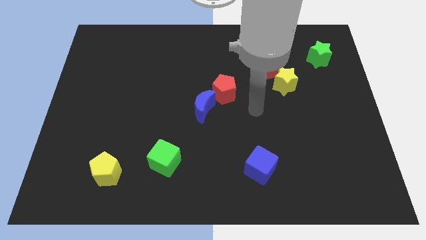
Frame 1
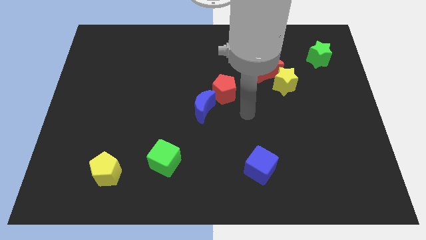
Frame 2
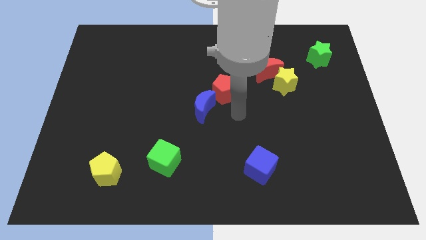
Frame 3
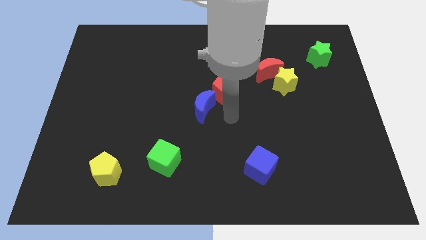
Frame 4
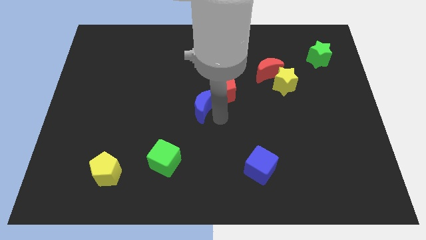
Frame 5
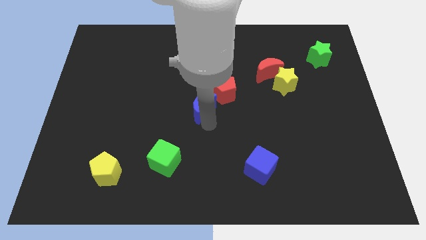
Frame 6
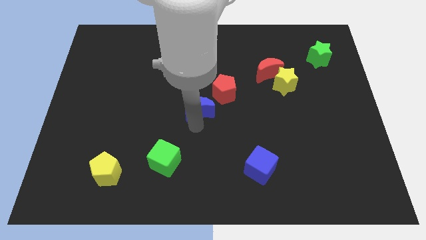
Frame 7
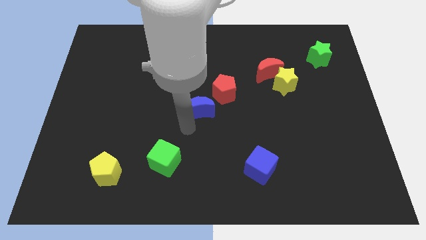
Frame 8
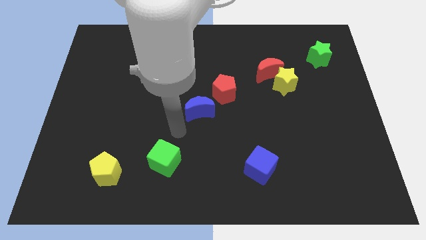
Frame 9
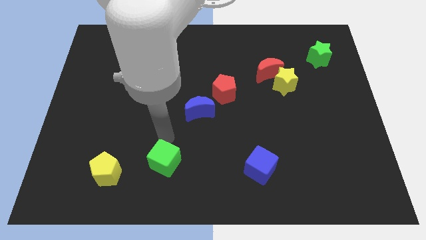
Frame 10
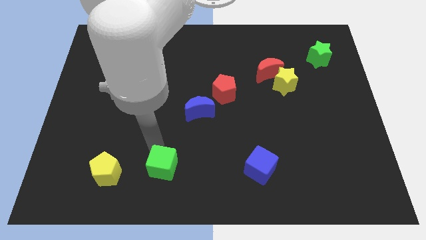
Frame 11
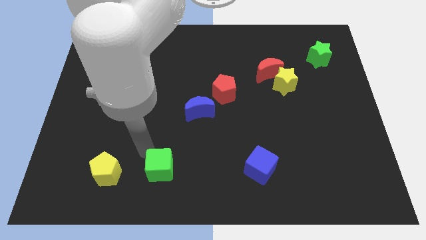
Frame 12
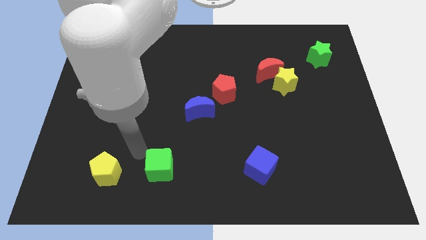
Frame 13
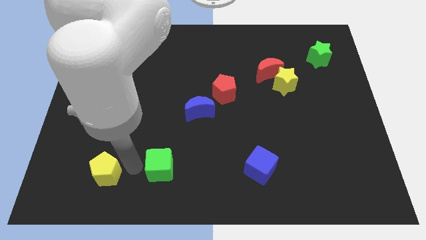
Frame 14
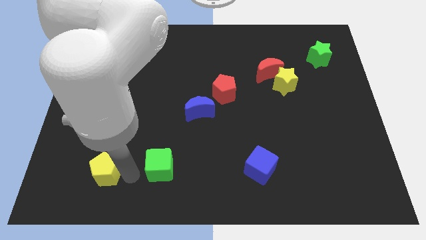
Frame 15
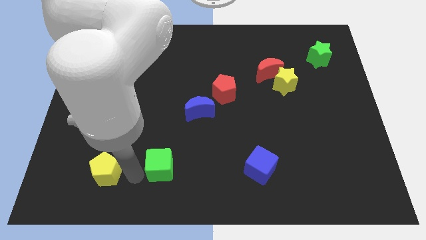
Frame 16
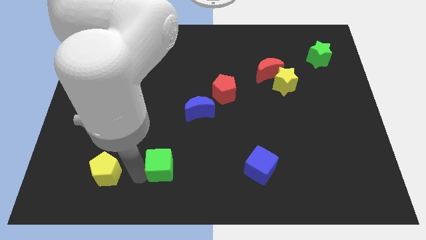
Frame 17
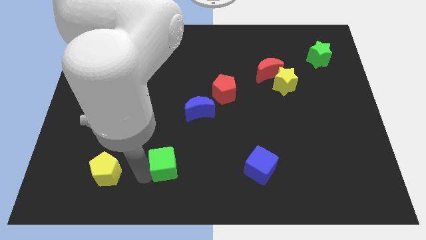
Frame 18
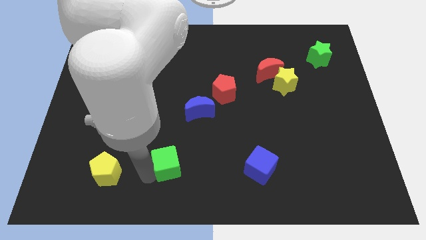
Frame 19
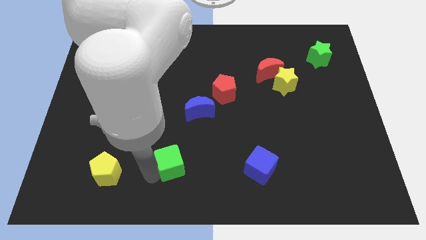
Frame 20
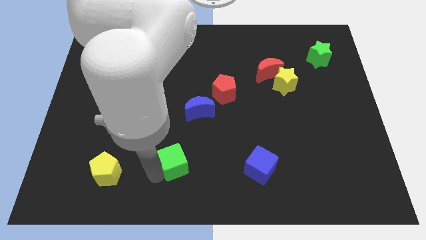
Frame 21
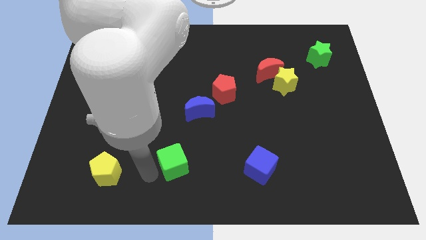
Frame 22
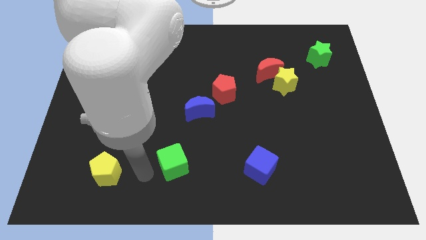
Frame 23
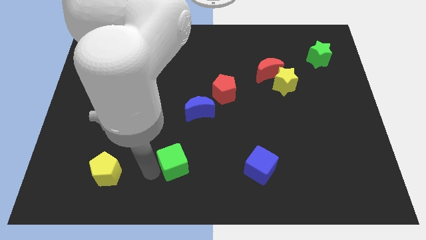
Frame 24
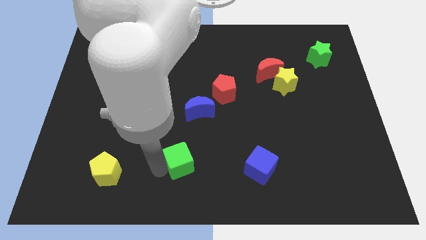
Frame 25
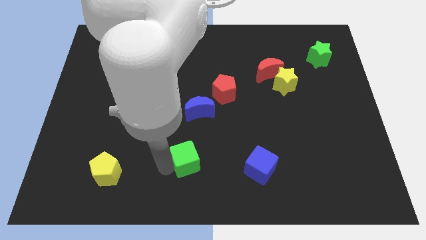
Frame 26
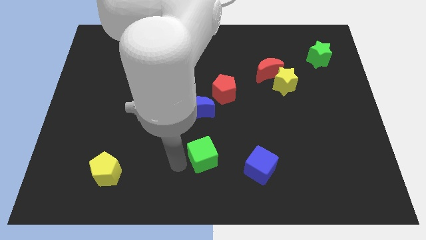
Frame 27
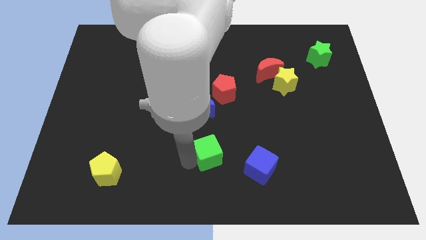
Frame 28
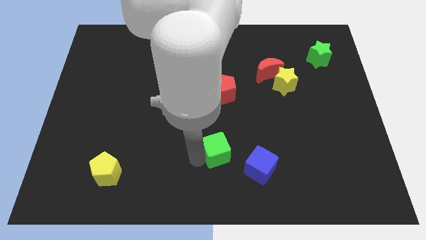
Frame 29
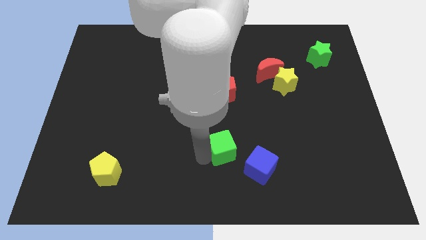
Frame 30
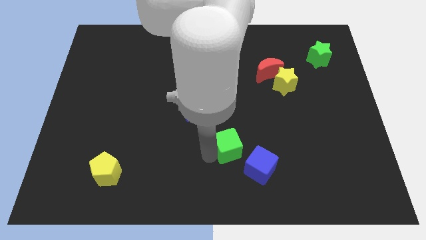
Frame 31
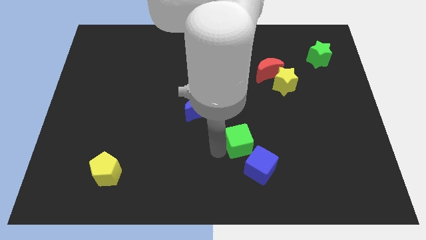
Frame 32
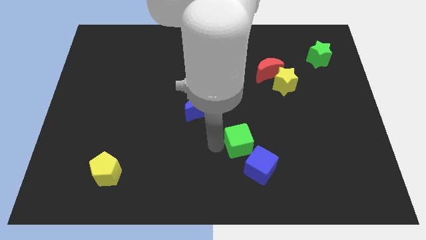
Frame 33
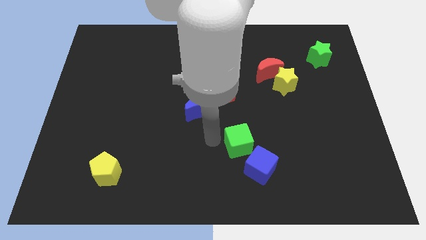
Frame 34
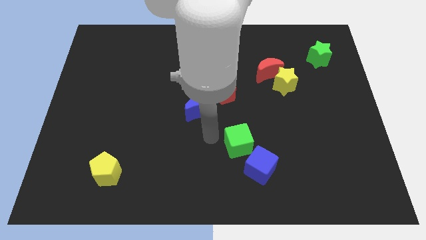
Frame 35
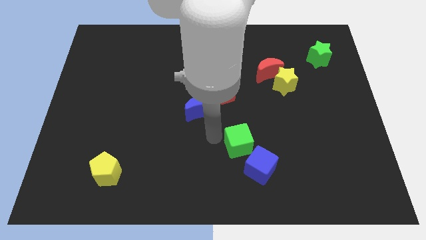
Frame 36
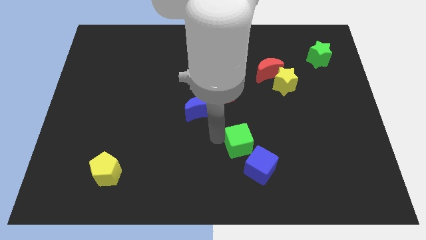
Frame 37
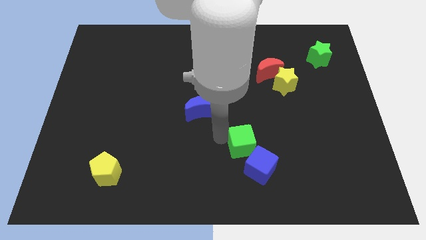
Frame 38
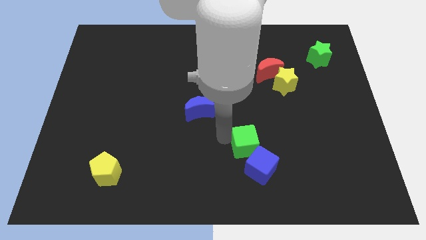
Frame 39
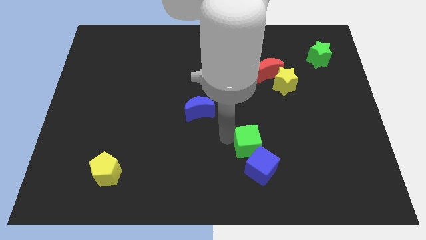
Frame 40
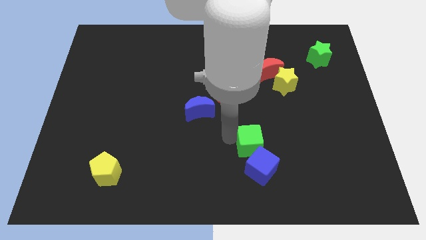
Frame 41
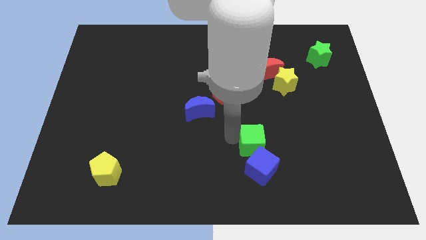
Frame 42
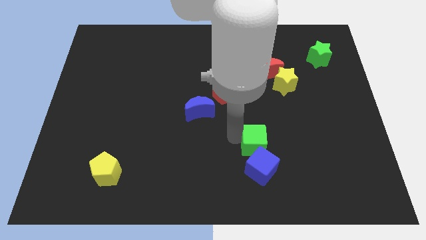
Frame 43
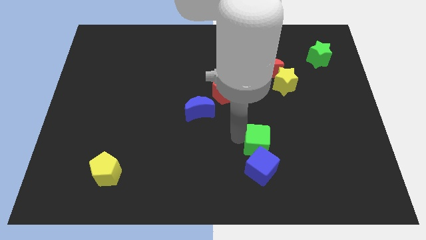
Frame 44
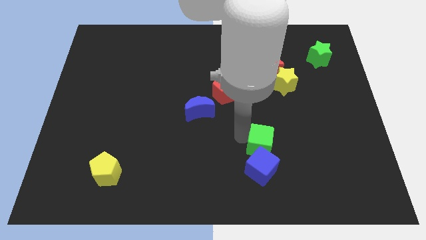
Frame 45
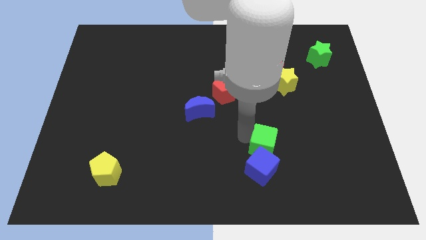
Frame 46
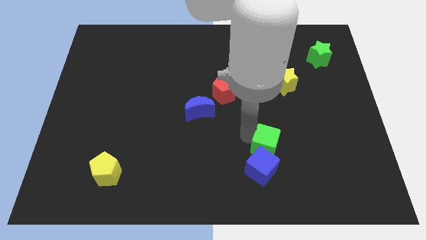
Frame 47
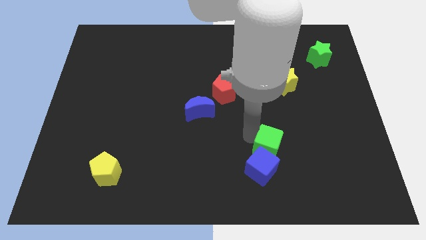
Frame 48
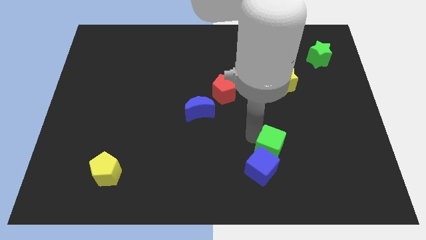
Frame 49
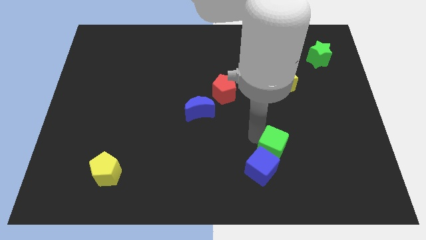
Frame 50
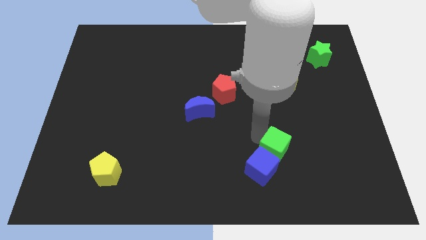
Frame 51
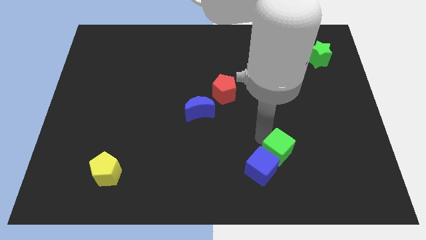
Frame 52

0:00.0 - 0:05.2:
put the green cube to the right side of the blue cube

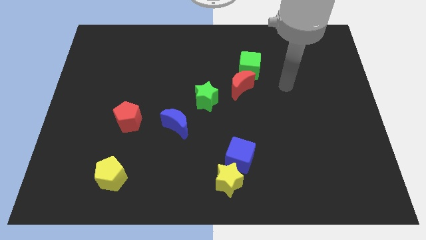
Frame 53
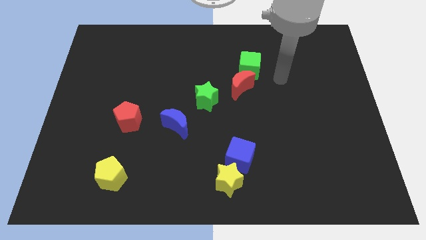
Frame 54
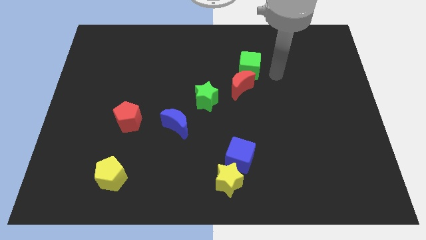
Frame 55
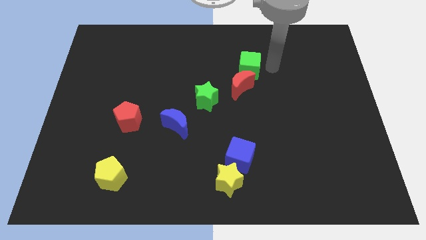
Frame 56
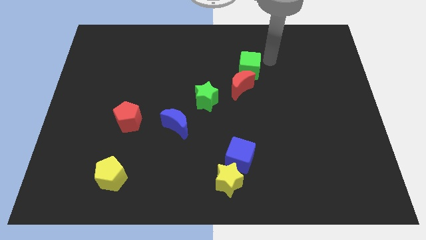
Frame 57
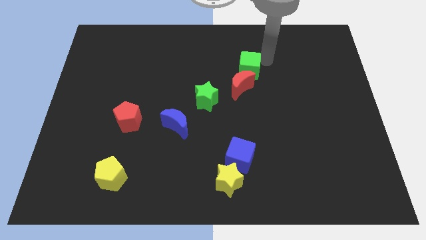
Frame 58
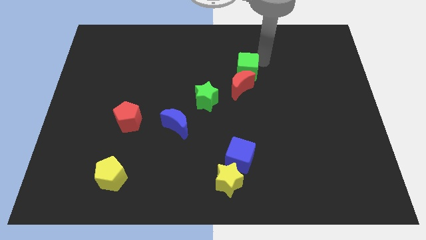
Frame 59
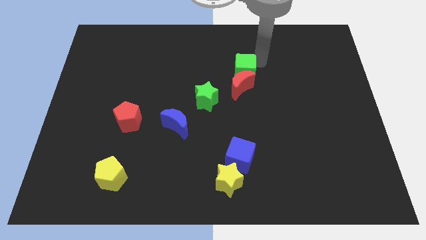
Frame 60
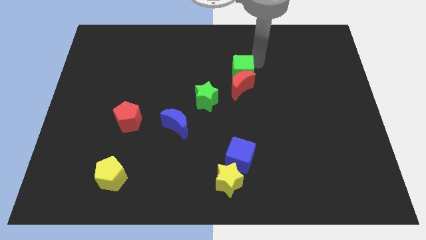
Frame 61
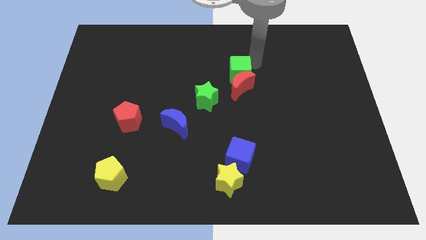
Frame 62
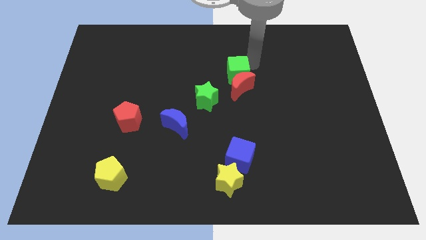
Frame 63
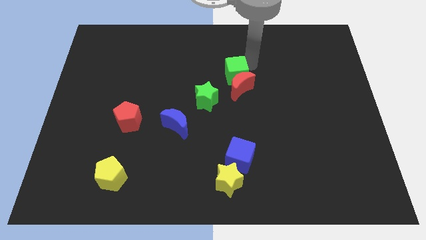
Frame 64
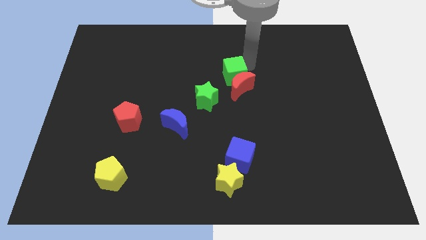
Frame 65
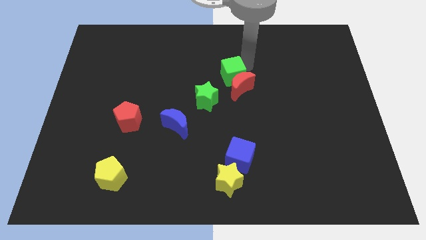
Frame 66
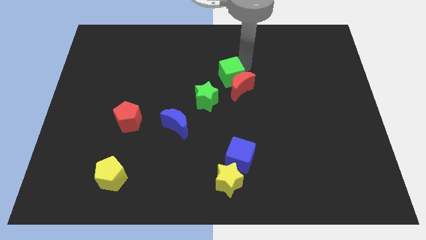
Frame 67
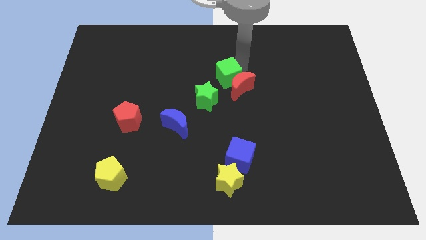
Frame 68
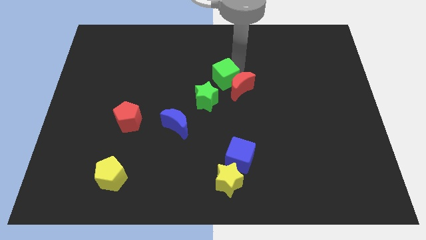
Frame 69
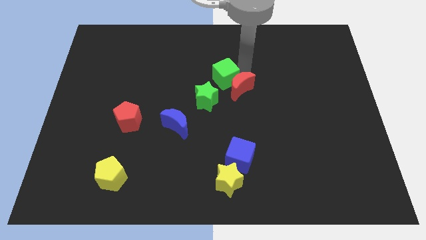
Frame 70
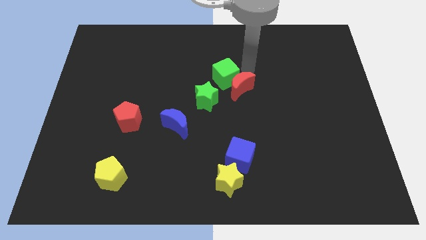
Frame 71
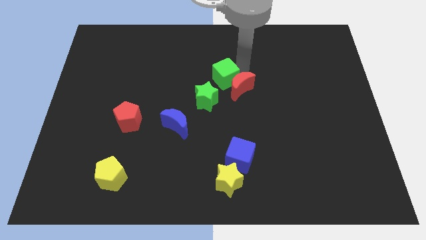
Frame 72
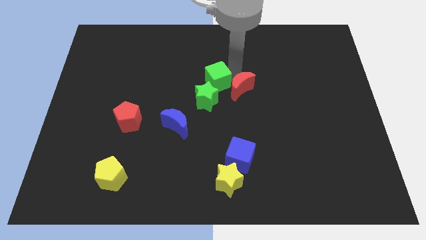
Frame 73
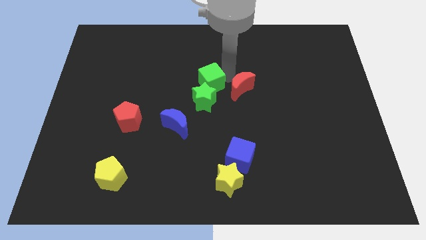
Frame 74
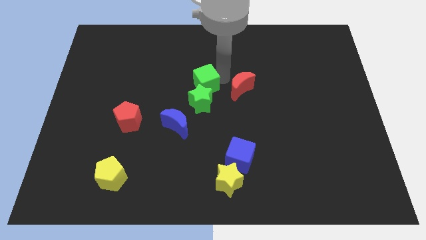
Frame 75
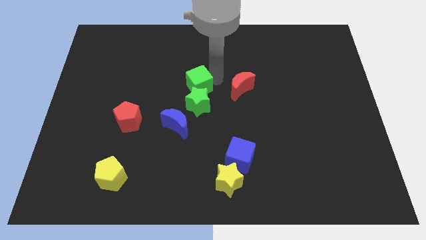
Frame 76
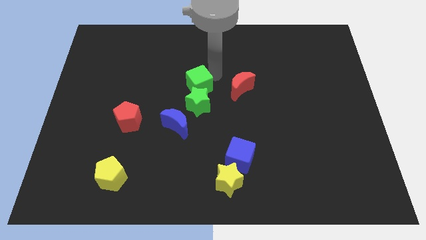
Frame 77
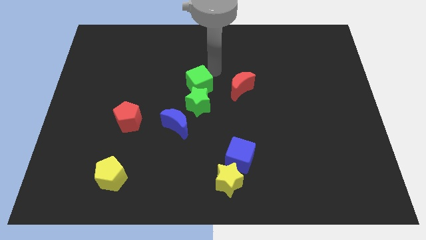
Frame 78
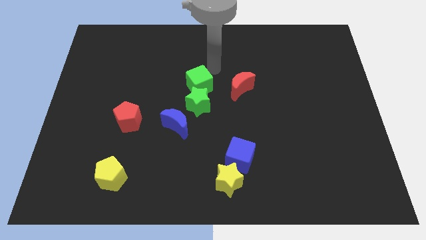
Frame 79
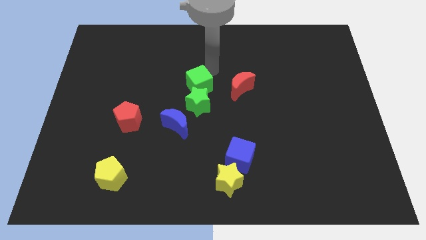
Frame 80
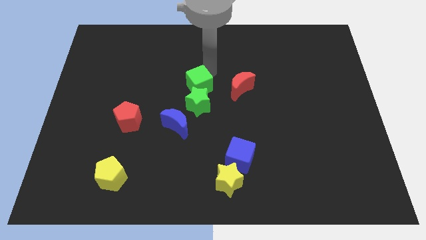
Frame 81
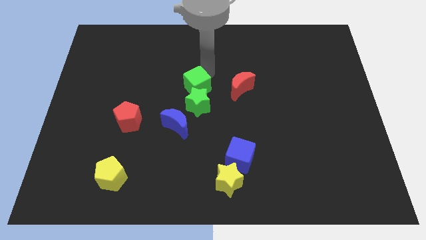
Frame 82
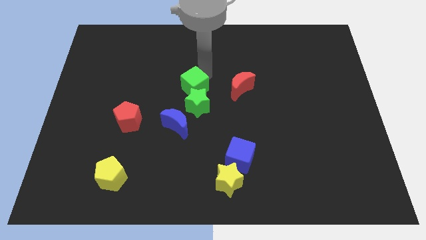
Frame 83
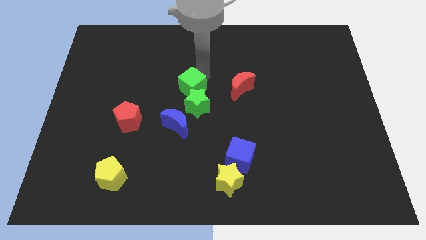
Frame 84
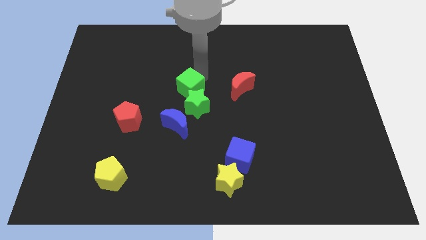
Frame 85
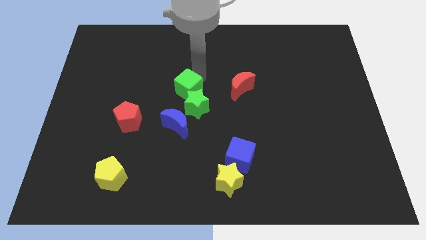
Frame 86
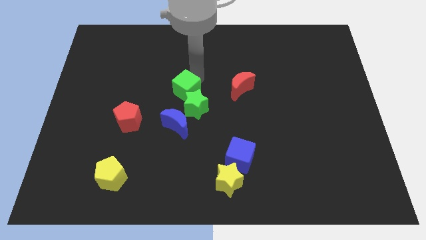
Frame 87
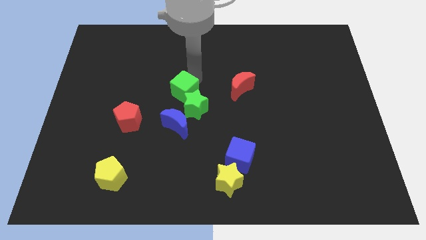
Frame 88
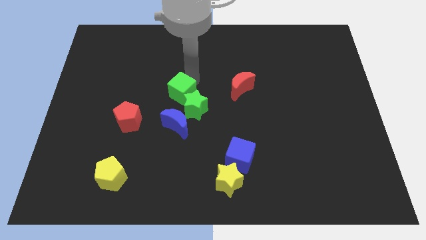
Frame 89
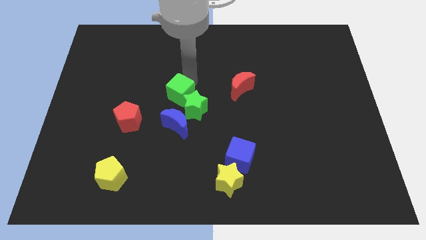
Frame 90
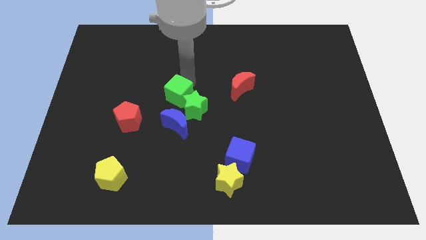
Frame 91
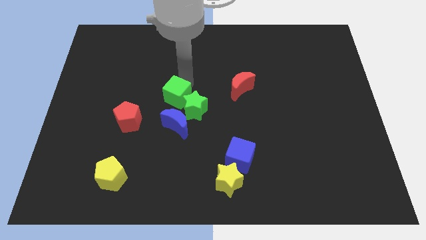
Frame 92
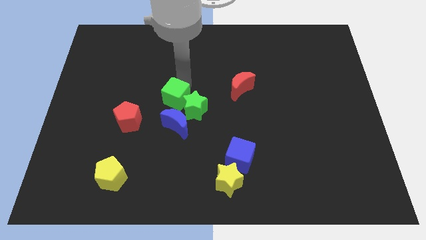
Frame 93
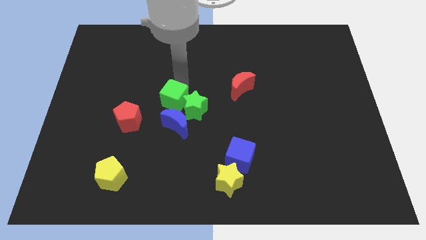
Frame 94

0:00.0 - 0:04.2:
push the green cube diagonally up and to the left of the blue moon
